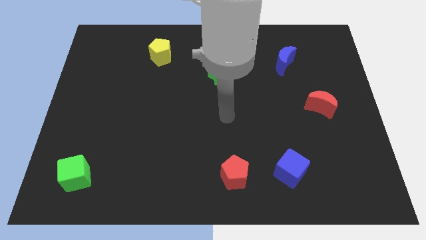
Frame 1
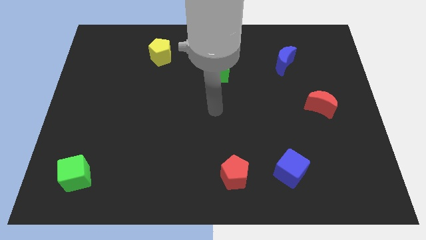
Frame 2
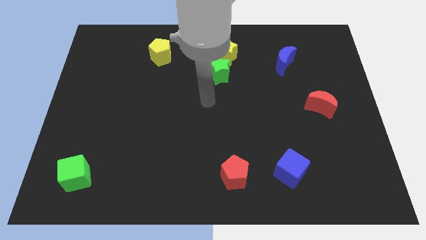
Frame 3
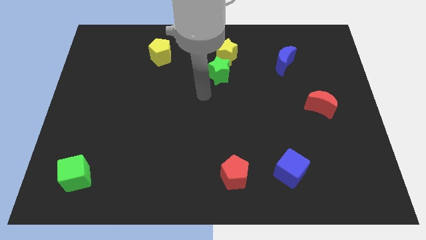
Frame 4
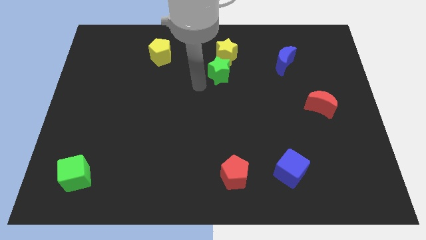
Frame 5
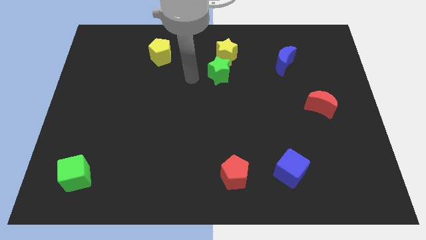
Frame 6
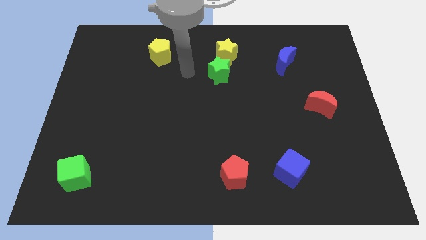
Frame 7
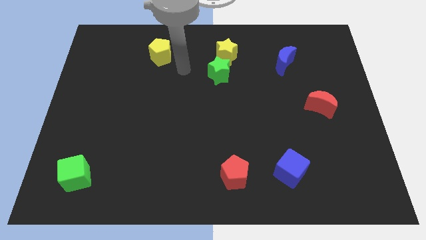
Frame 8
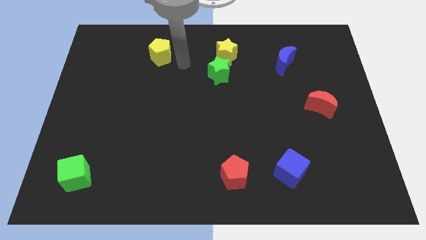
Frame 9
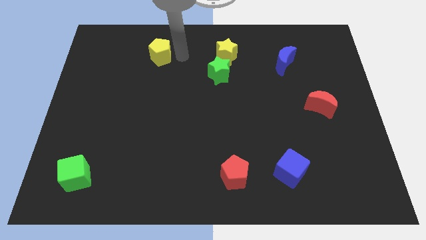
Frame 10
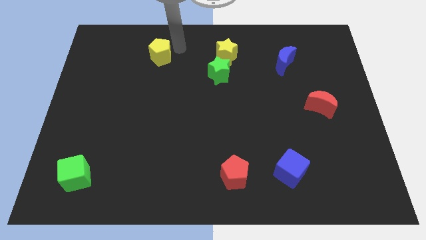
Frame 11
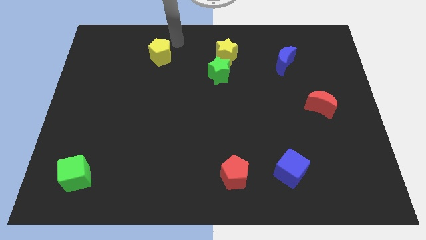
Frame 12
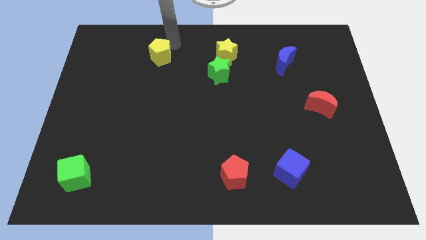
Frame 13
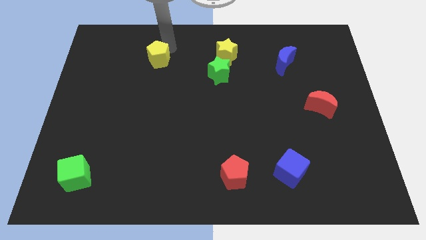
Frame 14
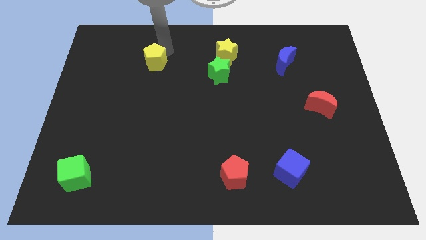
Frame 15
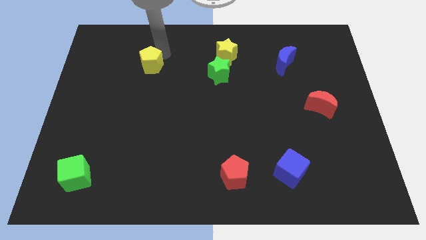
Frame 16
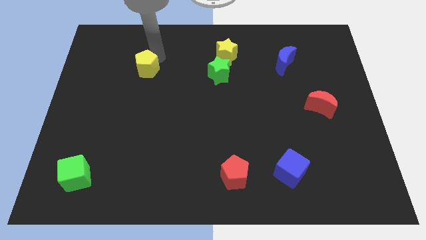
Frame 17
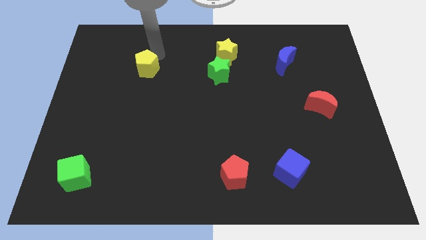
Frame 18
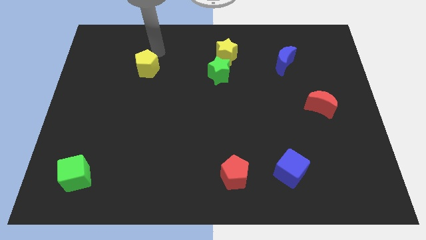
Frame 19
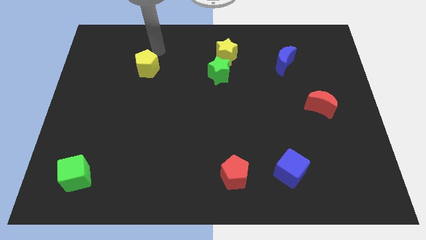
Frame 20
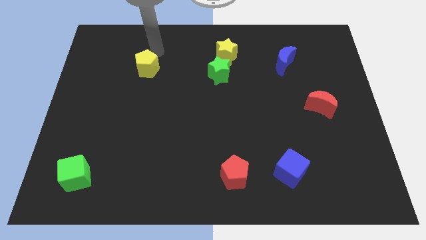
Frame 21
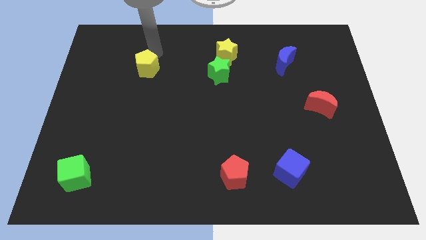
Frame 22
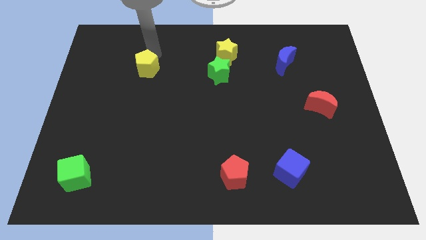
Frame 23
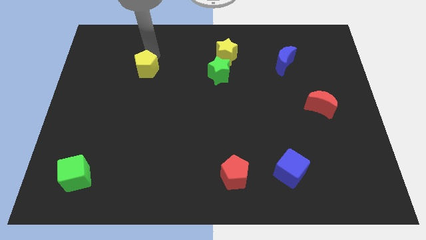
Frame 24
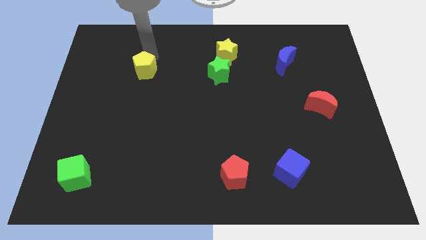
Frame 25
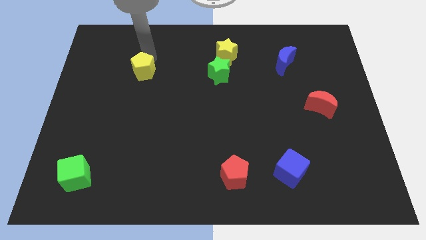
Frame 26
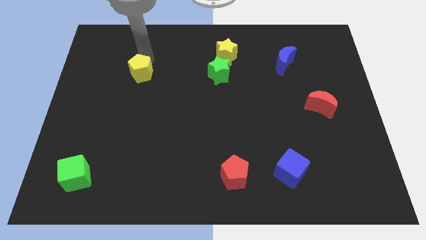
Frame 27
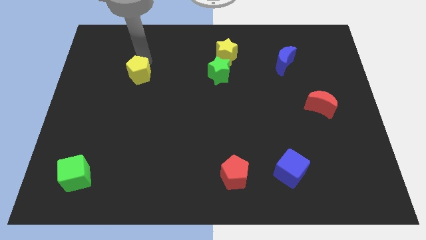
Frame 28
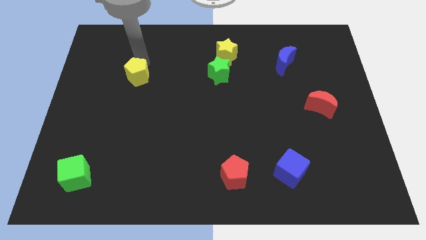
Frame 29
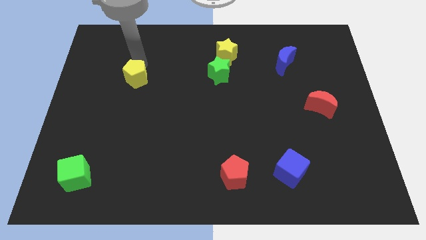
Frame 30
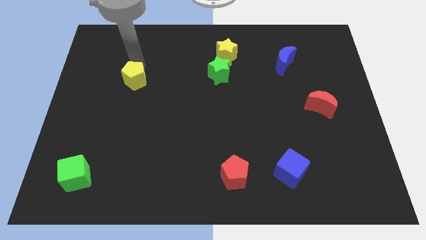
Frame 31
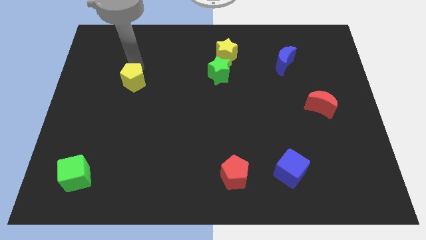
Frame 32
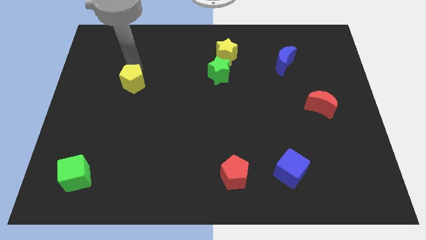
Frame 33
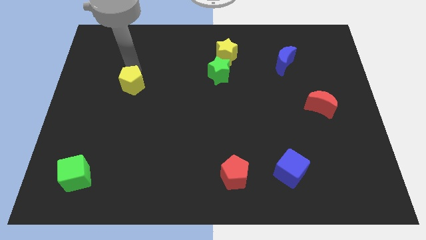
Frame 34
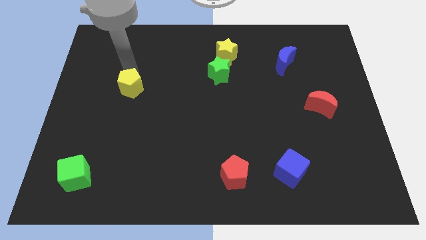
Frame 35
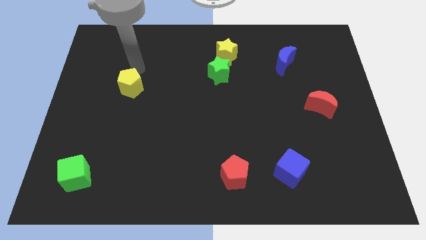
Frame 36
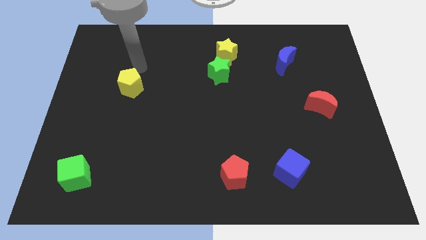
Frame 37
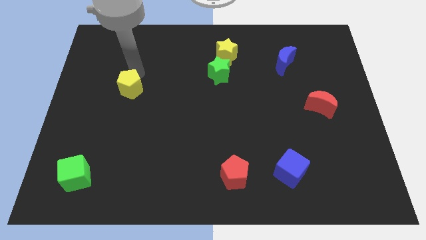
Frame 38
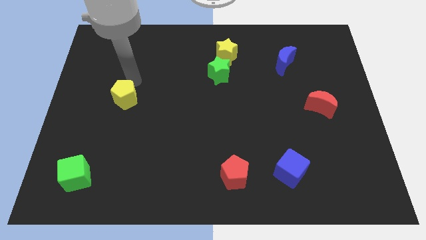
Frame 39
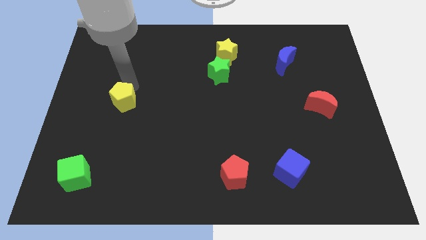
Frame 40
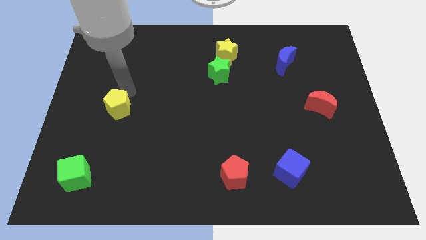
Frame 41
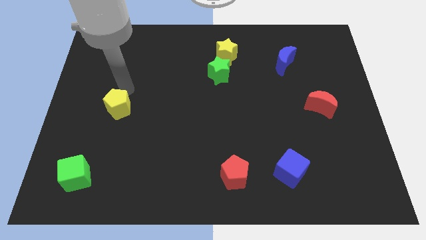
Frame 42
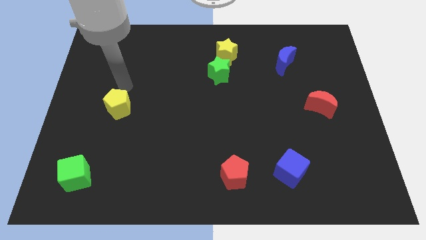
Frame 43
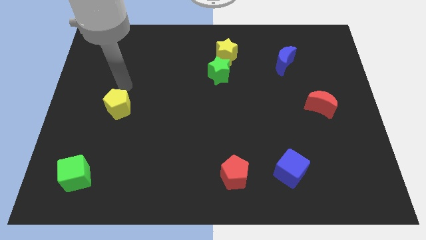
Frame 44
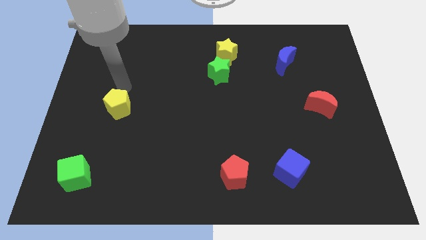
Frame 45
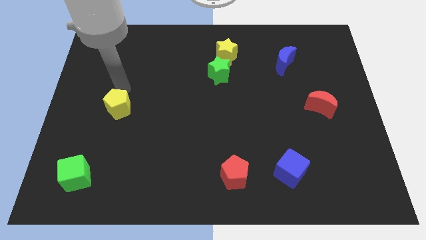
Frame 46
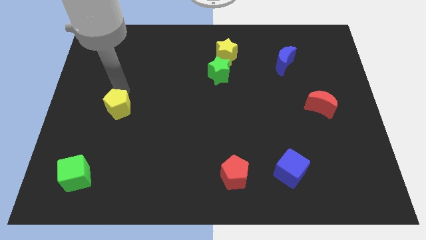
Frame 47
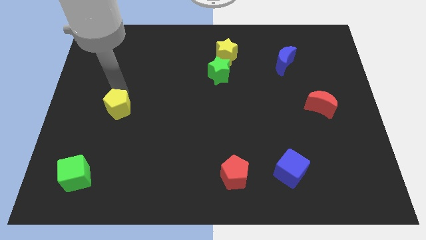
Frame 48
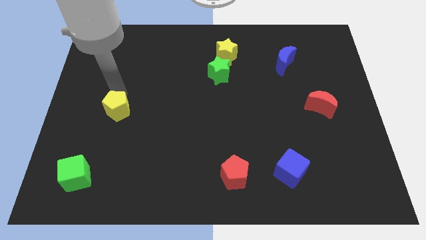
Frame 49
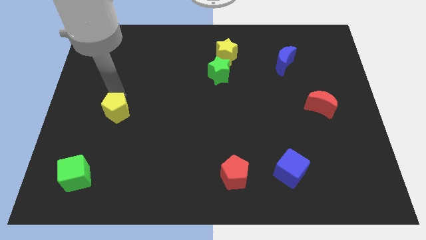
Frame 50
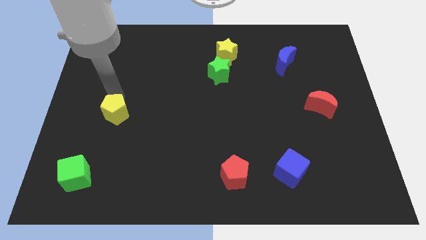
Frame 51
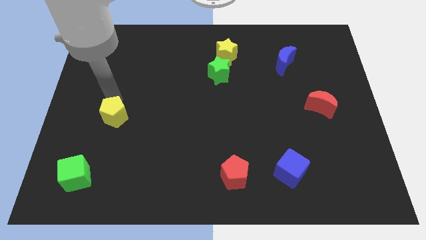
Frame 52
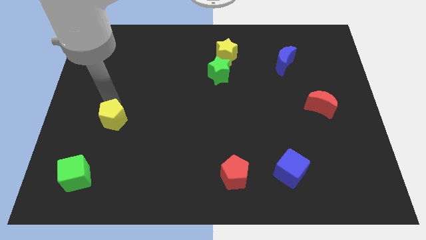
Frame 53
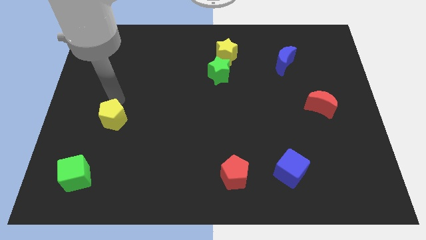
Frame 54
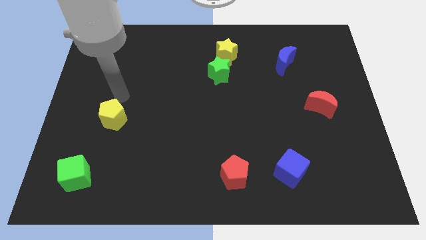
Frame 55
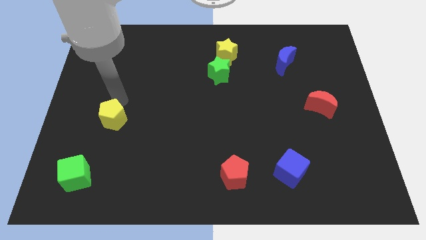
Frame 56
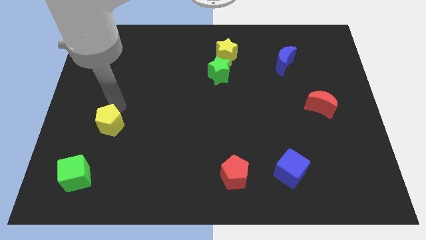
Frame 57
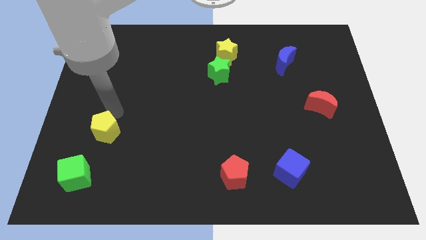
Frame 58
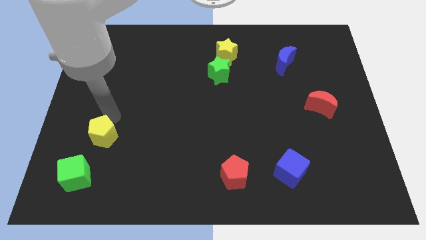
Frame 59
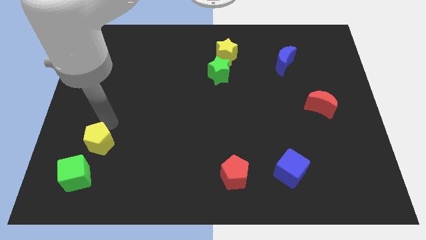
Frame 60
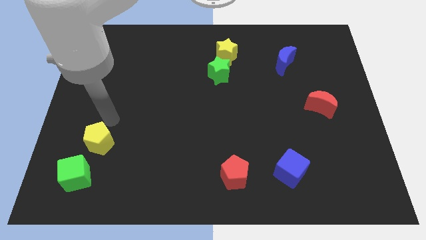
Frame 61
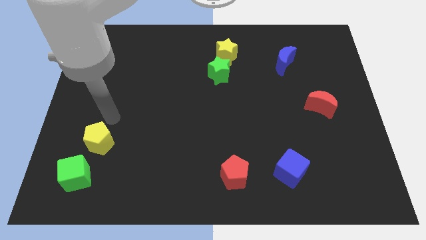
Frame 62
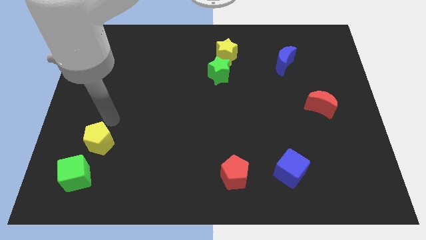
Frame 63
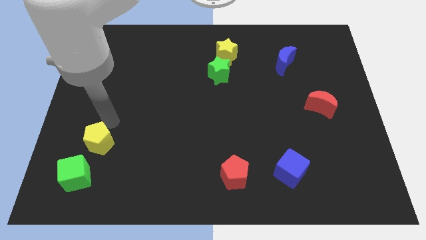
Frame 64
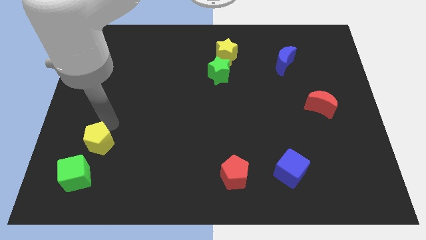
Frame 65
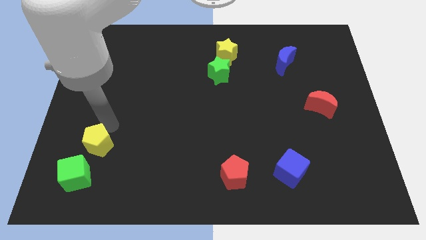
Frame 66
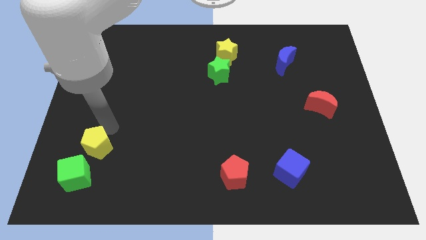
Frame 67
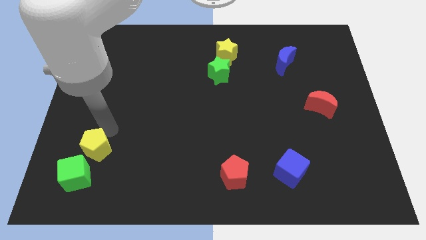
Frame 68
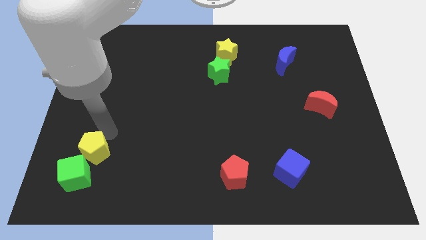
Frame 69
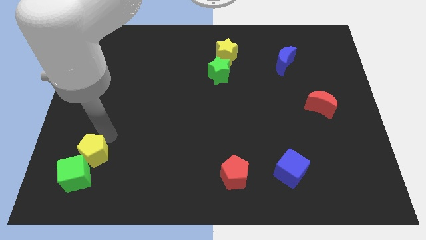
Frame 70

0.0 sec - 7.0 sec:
push the yellow pentagon towards the green cube
